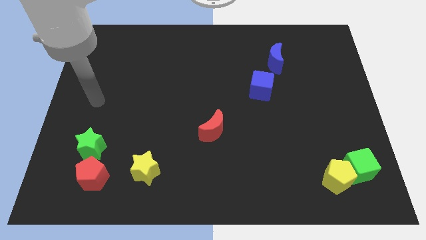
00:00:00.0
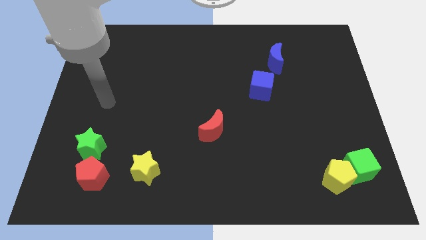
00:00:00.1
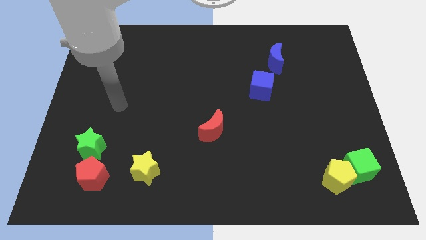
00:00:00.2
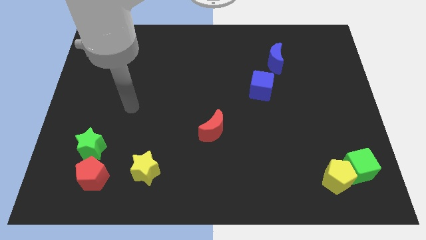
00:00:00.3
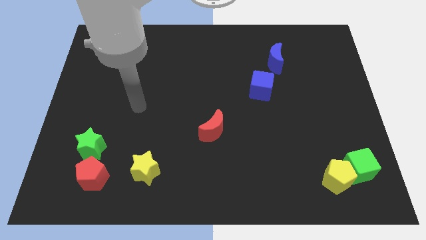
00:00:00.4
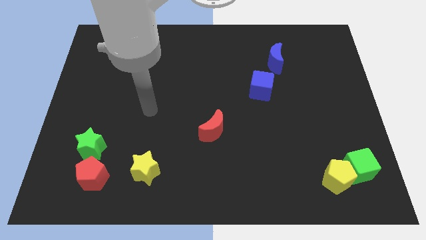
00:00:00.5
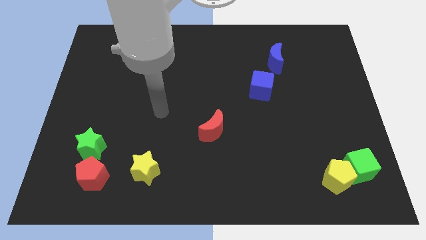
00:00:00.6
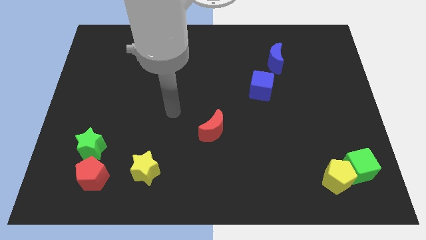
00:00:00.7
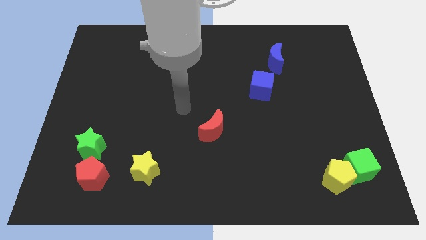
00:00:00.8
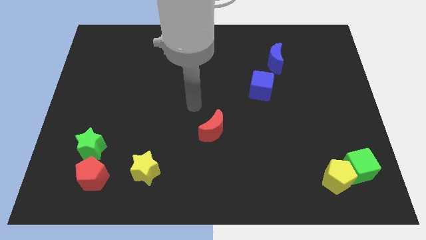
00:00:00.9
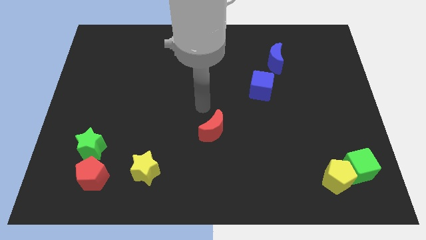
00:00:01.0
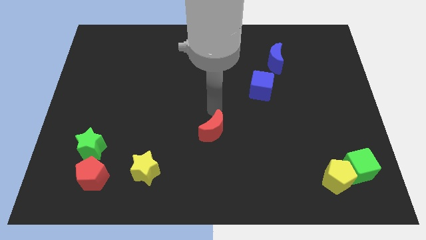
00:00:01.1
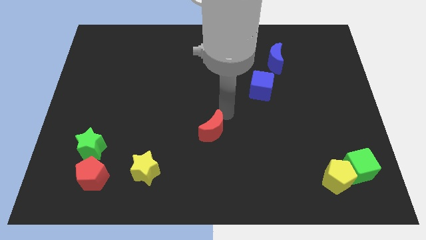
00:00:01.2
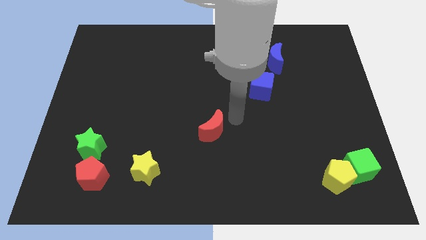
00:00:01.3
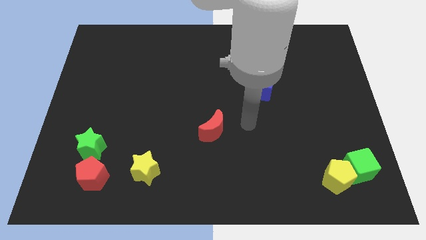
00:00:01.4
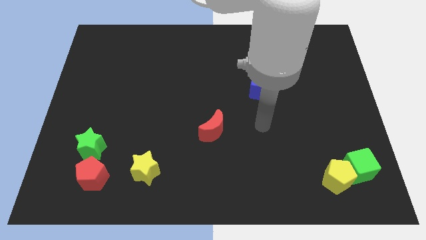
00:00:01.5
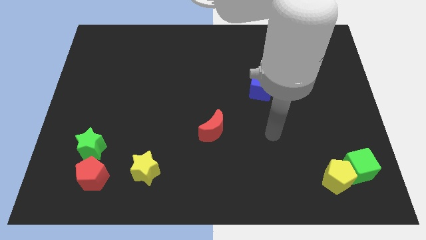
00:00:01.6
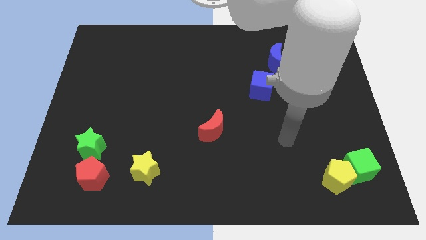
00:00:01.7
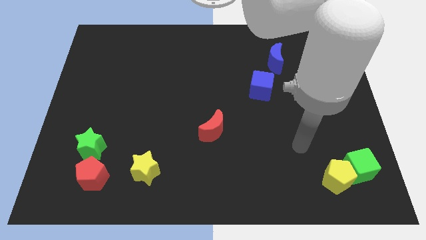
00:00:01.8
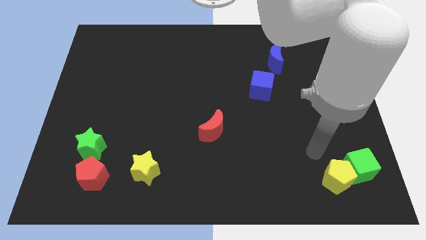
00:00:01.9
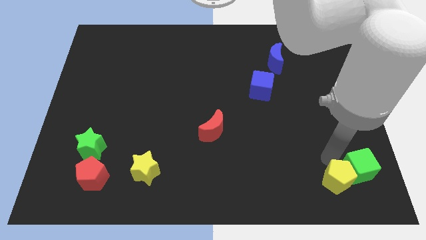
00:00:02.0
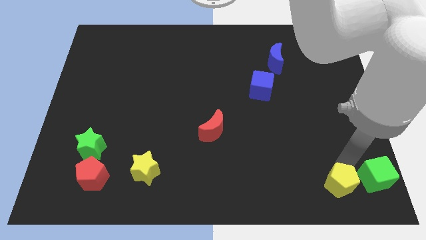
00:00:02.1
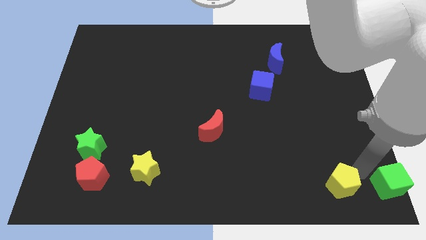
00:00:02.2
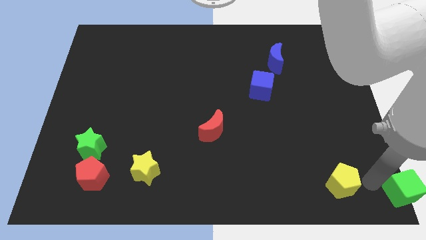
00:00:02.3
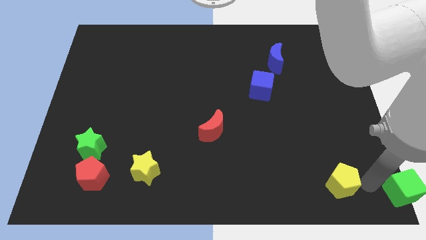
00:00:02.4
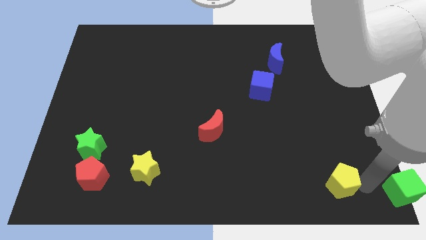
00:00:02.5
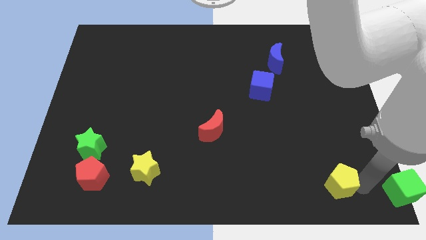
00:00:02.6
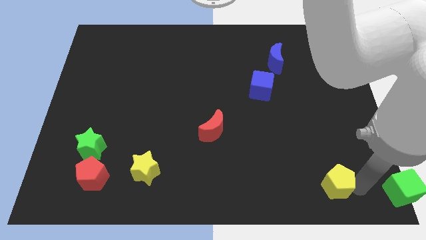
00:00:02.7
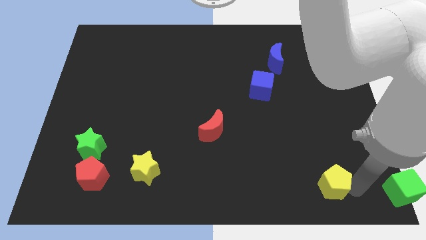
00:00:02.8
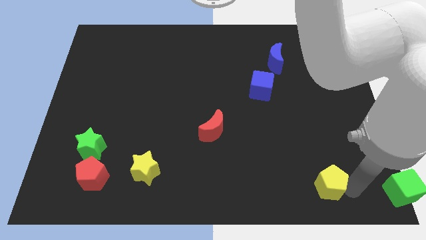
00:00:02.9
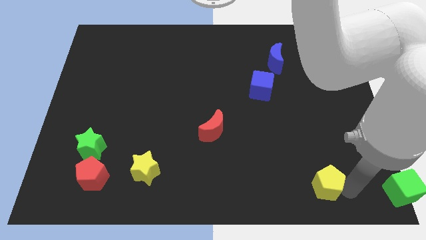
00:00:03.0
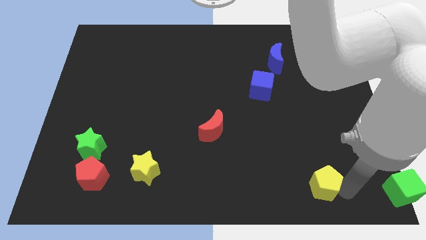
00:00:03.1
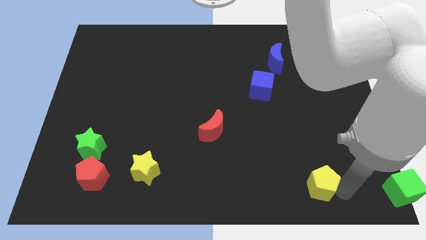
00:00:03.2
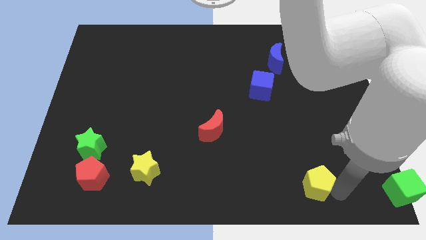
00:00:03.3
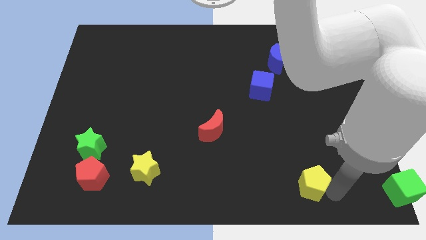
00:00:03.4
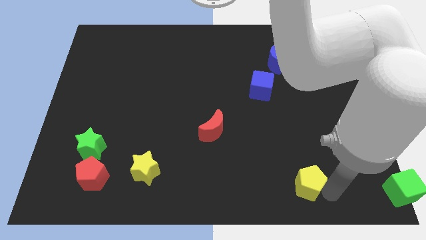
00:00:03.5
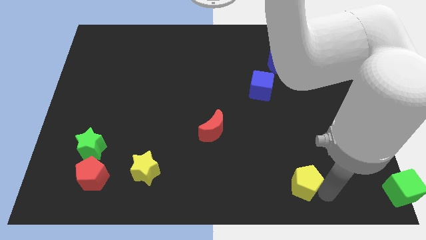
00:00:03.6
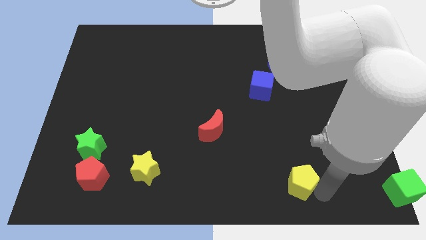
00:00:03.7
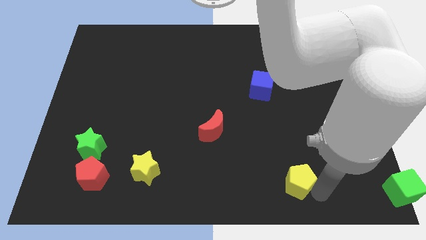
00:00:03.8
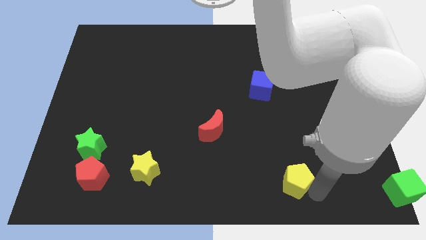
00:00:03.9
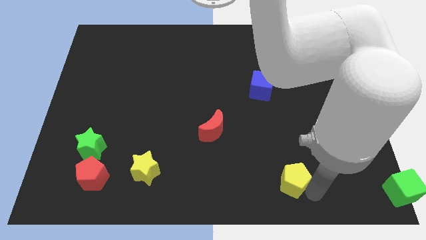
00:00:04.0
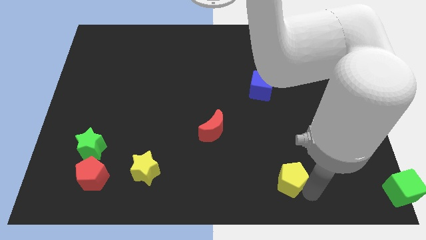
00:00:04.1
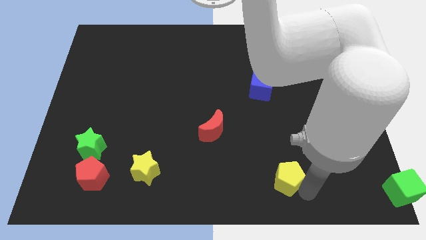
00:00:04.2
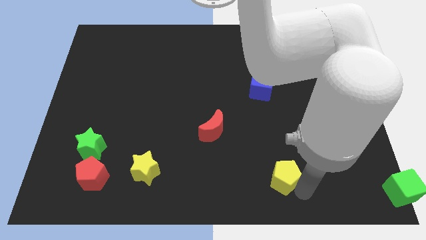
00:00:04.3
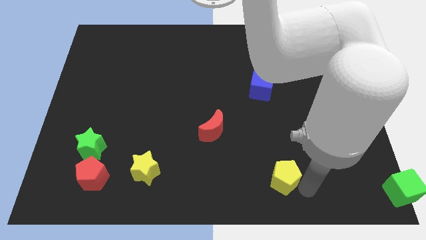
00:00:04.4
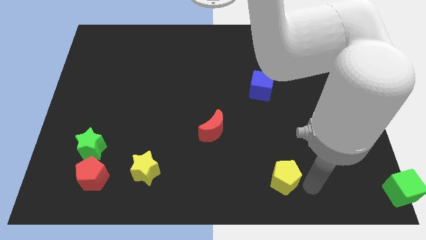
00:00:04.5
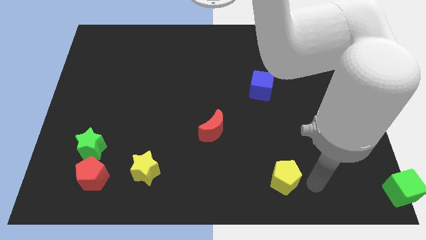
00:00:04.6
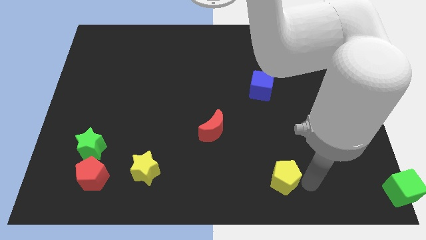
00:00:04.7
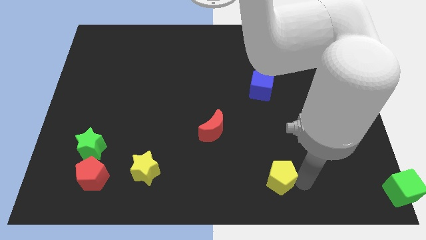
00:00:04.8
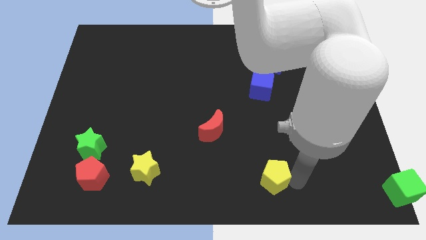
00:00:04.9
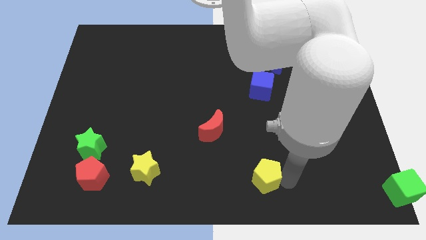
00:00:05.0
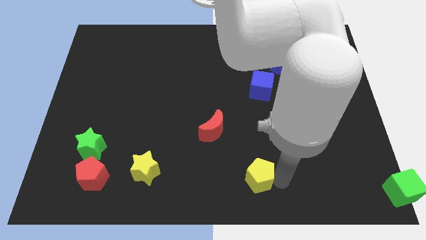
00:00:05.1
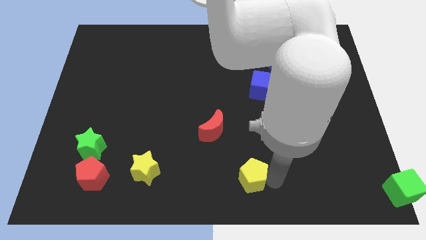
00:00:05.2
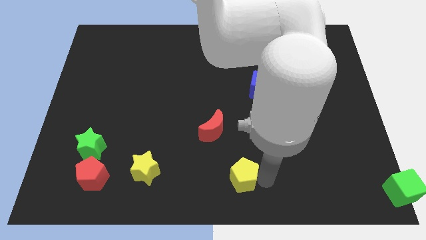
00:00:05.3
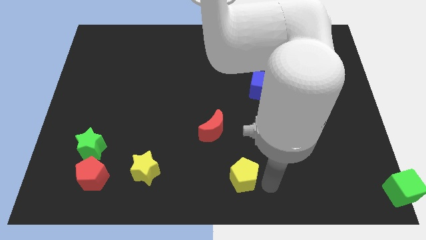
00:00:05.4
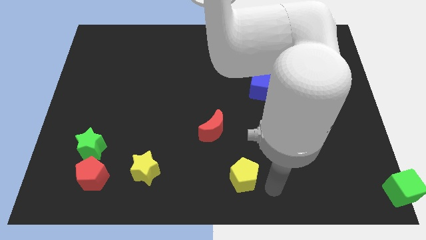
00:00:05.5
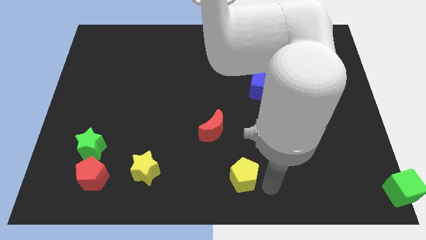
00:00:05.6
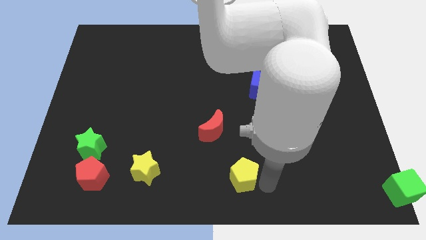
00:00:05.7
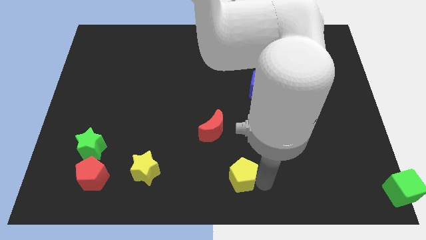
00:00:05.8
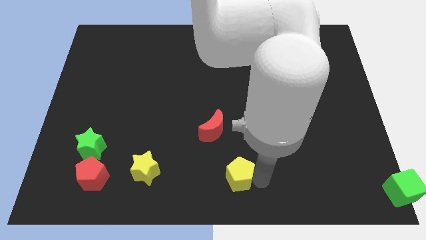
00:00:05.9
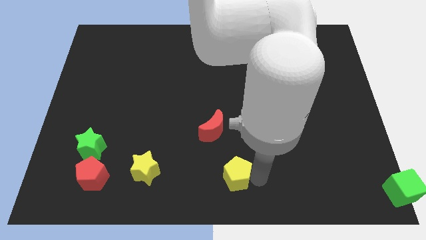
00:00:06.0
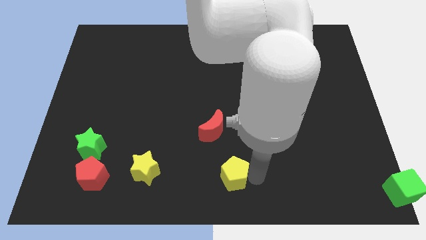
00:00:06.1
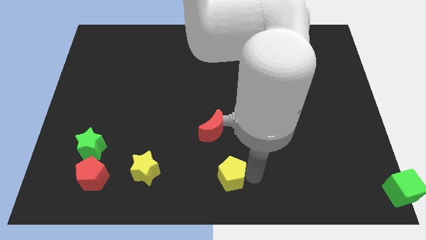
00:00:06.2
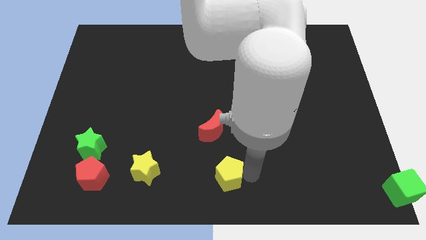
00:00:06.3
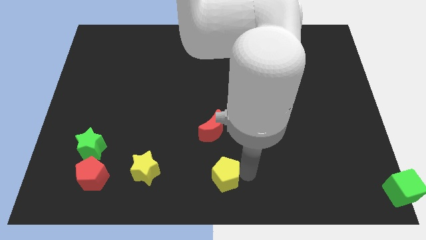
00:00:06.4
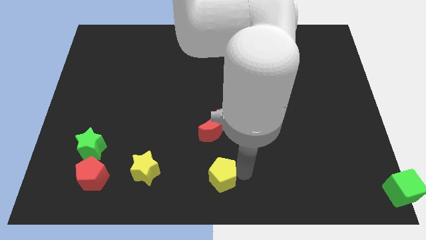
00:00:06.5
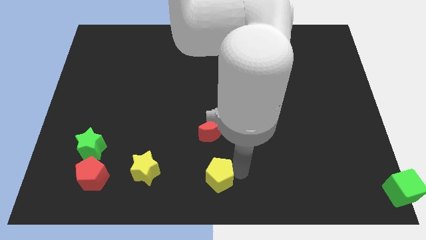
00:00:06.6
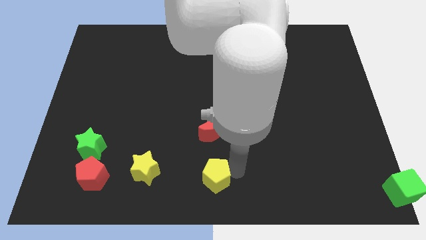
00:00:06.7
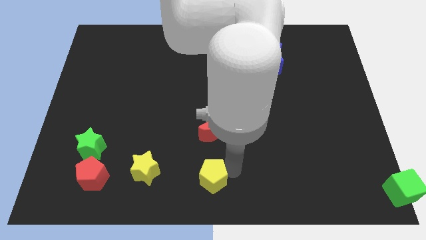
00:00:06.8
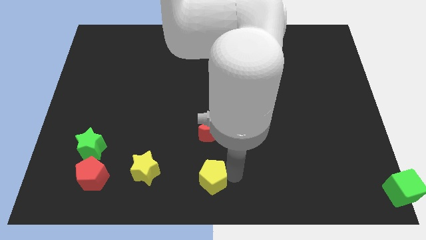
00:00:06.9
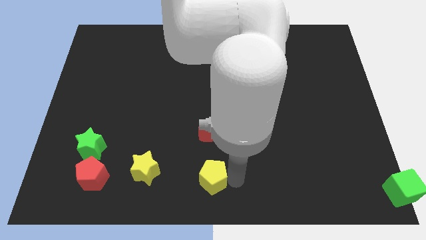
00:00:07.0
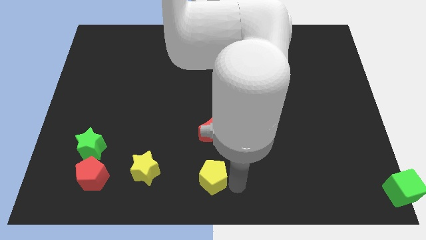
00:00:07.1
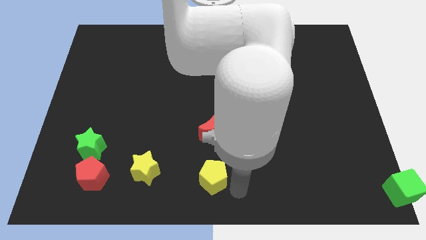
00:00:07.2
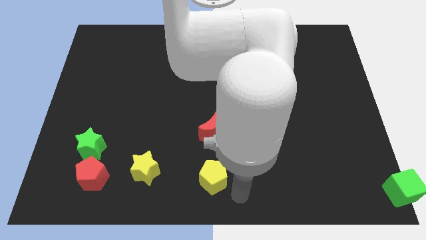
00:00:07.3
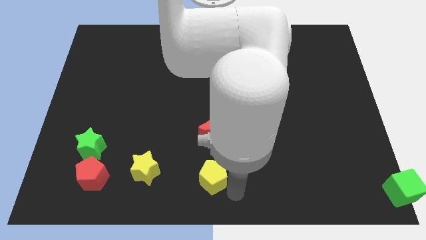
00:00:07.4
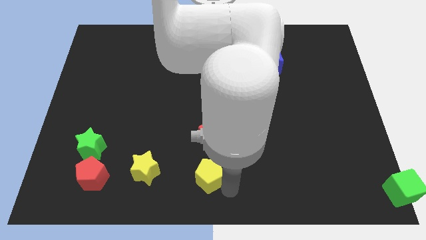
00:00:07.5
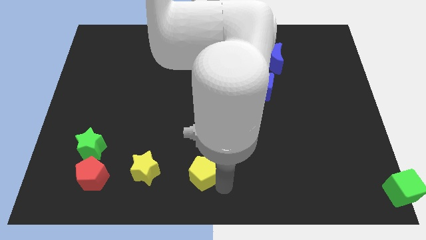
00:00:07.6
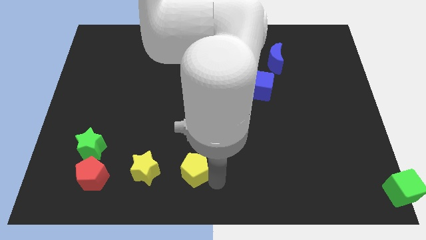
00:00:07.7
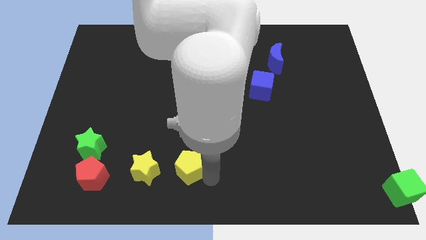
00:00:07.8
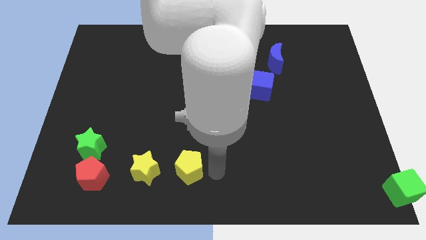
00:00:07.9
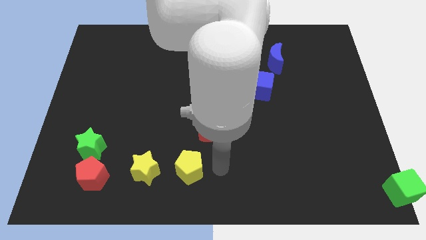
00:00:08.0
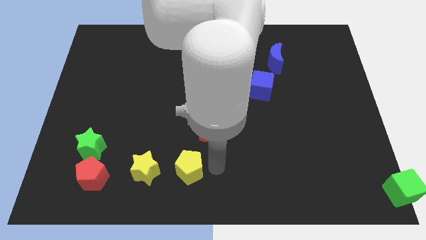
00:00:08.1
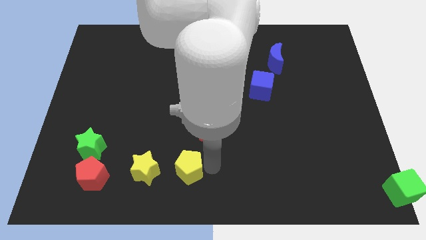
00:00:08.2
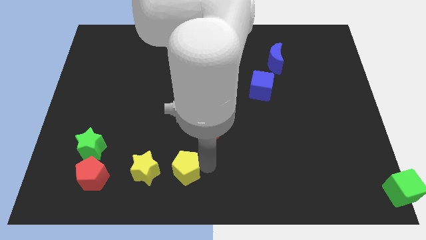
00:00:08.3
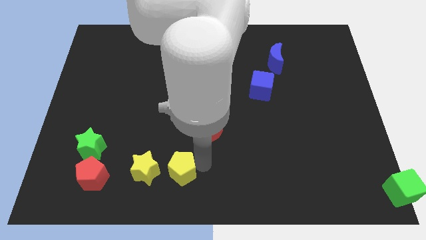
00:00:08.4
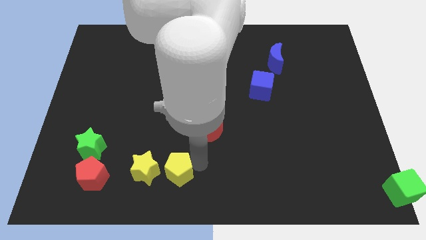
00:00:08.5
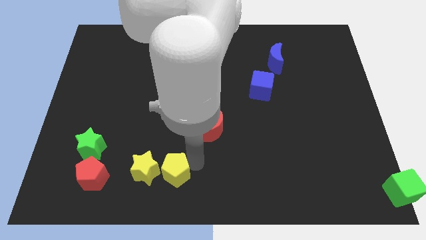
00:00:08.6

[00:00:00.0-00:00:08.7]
push the yellow pentagon towards the yellow star
